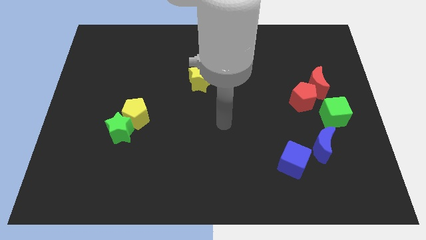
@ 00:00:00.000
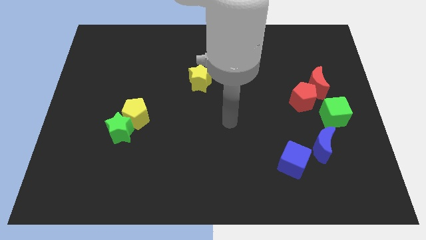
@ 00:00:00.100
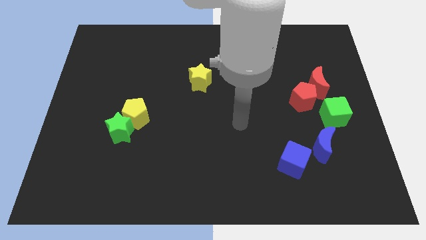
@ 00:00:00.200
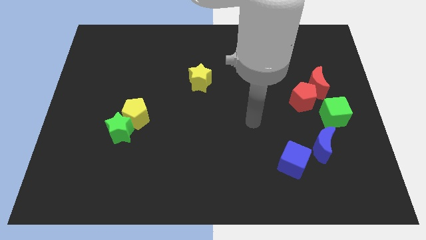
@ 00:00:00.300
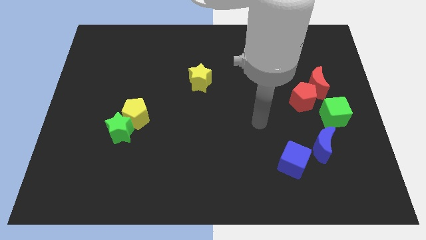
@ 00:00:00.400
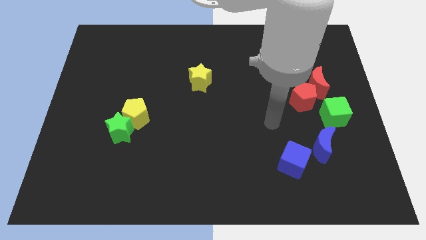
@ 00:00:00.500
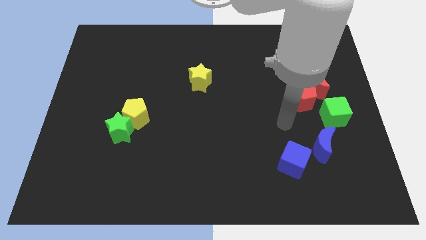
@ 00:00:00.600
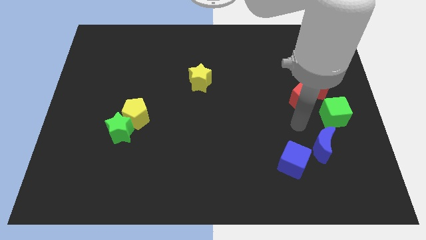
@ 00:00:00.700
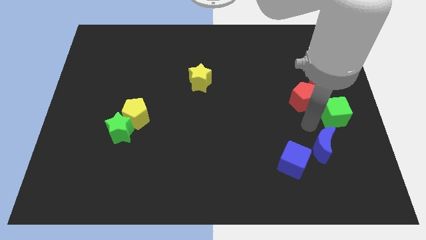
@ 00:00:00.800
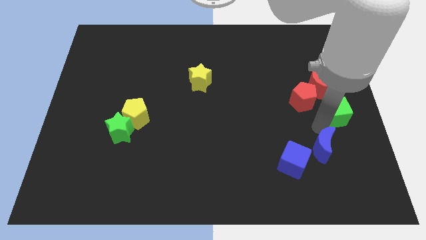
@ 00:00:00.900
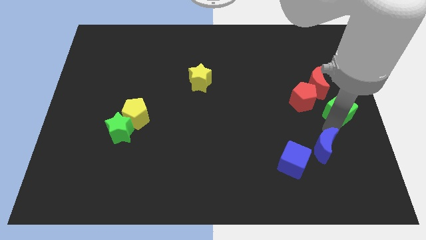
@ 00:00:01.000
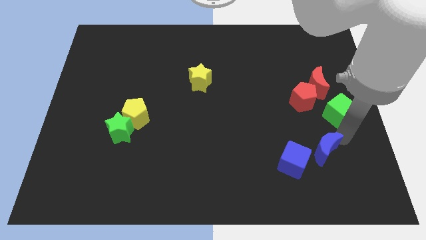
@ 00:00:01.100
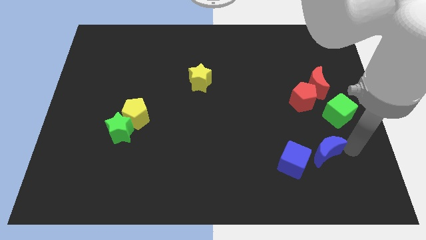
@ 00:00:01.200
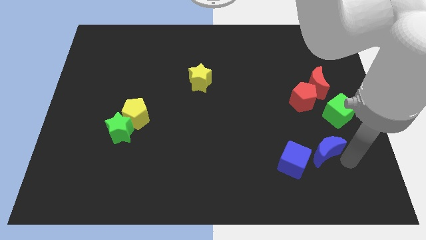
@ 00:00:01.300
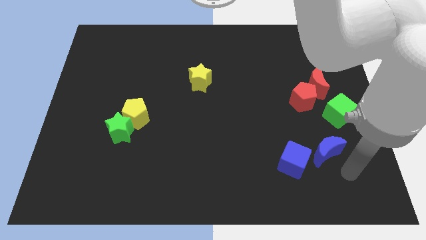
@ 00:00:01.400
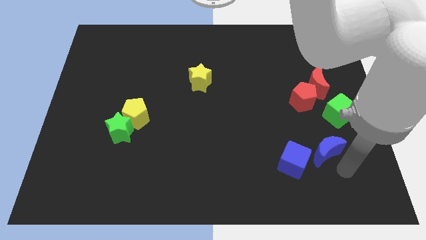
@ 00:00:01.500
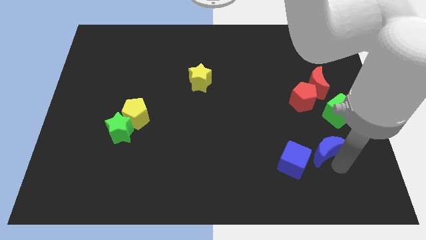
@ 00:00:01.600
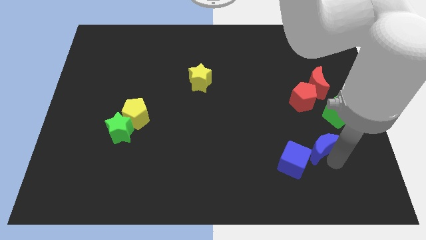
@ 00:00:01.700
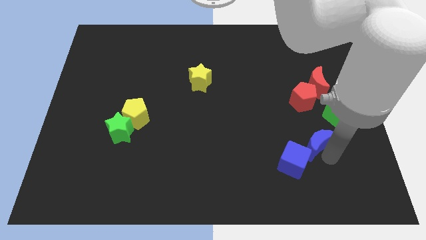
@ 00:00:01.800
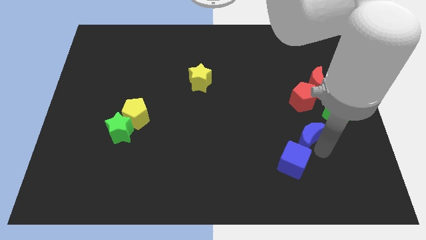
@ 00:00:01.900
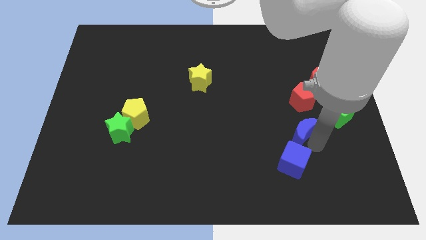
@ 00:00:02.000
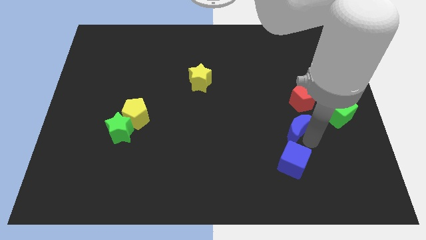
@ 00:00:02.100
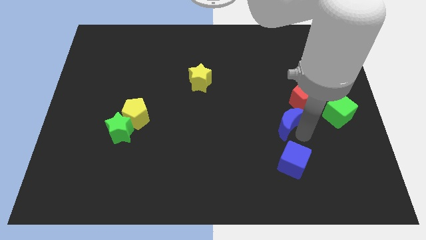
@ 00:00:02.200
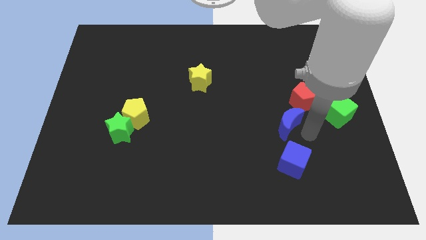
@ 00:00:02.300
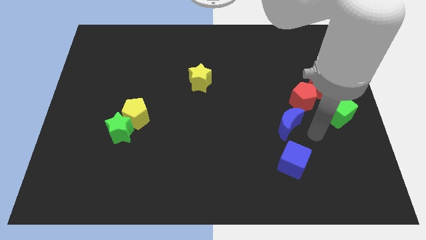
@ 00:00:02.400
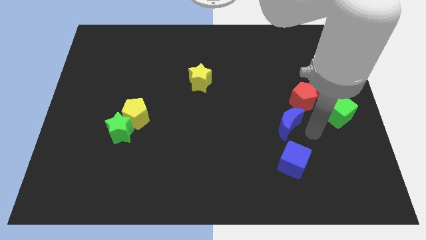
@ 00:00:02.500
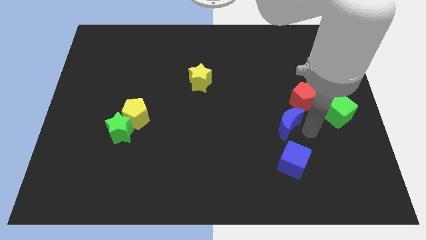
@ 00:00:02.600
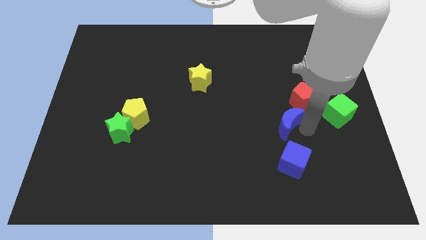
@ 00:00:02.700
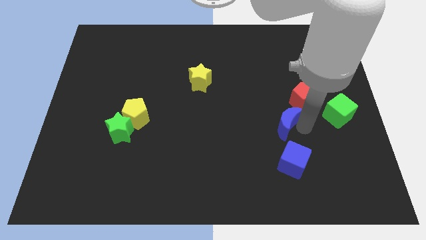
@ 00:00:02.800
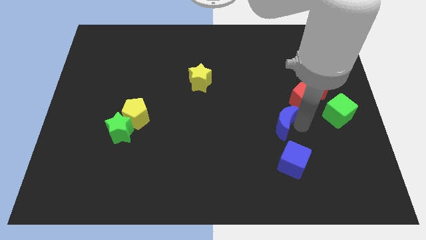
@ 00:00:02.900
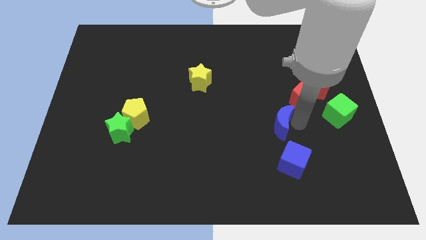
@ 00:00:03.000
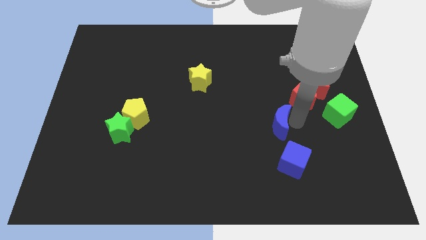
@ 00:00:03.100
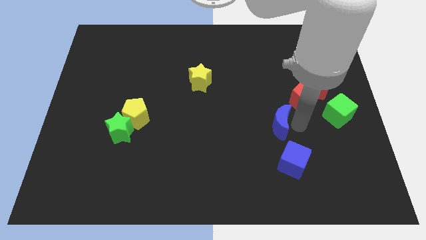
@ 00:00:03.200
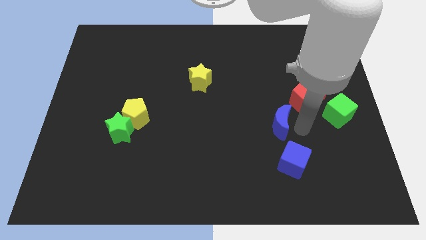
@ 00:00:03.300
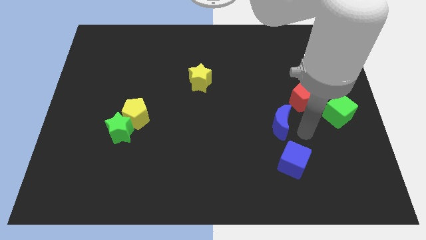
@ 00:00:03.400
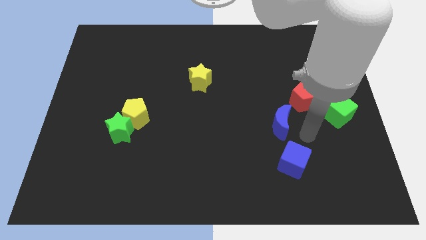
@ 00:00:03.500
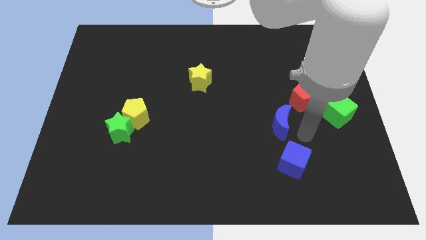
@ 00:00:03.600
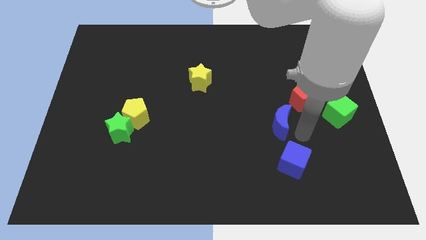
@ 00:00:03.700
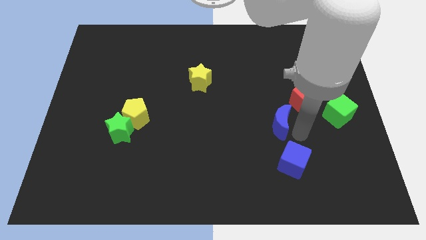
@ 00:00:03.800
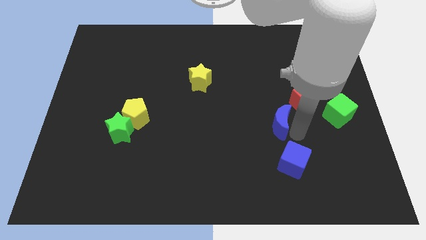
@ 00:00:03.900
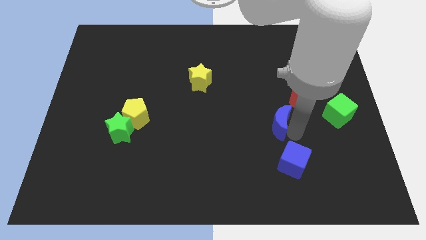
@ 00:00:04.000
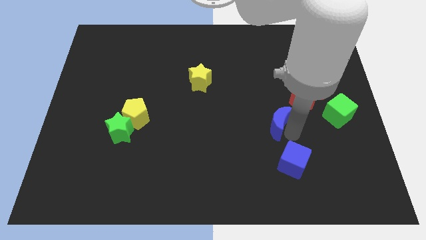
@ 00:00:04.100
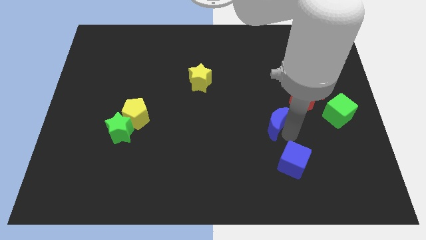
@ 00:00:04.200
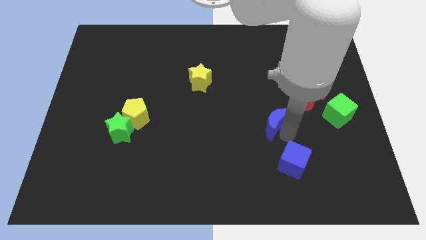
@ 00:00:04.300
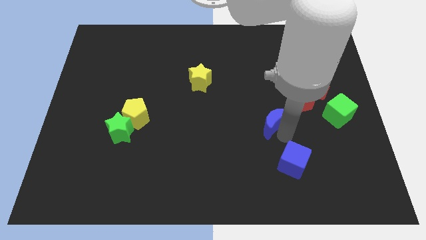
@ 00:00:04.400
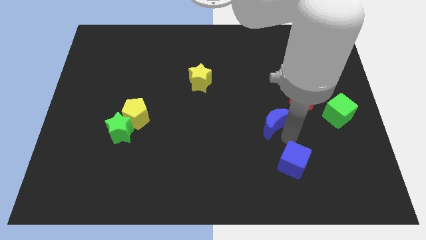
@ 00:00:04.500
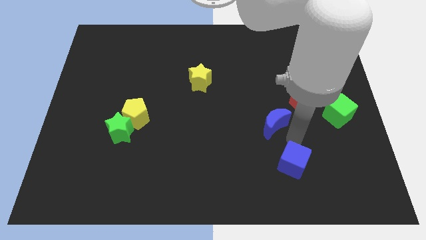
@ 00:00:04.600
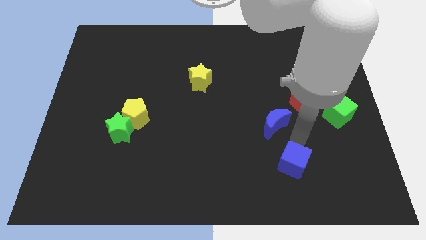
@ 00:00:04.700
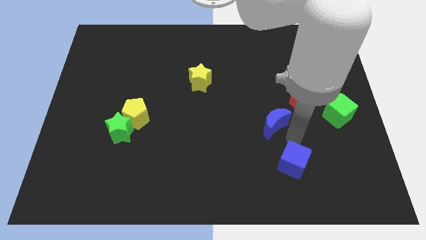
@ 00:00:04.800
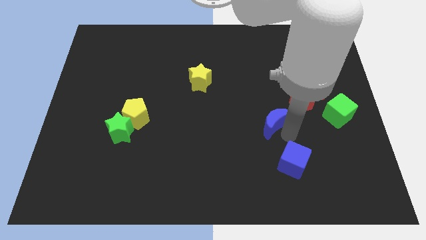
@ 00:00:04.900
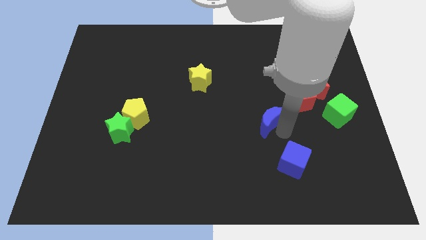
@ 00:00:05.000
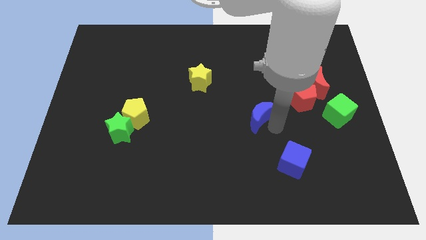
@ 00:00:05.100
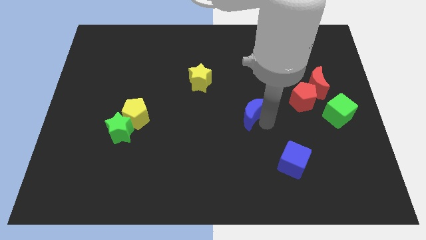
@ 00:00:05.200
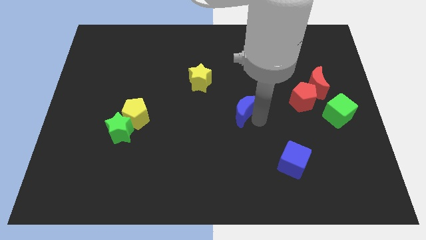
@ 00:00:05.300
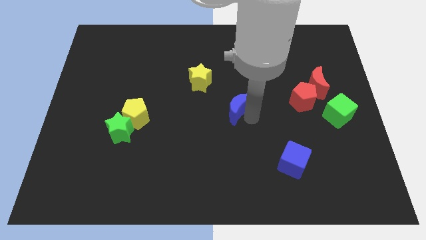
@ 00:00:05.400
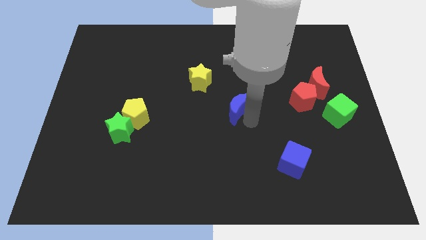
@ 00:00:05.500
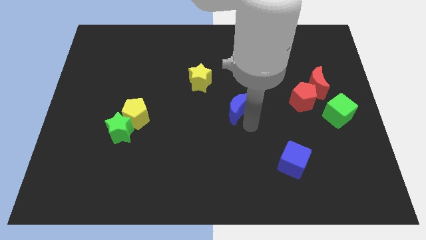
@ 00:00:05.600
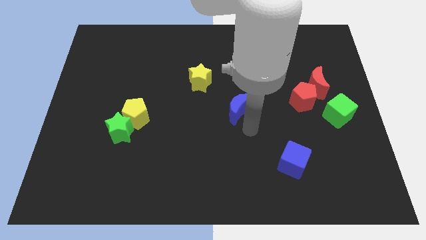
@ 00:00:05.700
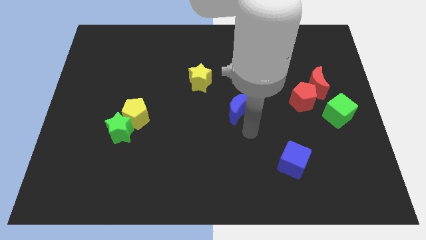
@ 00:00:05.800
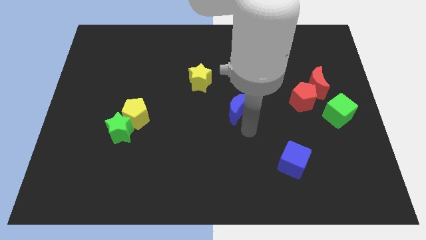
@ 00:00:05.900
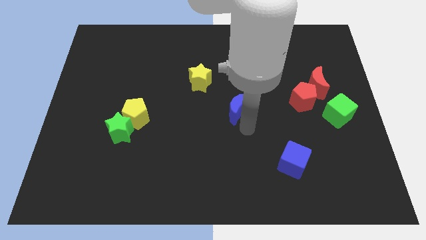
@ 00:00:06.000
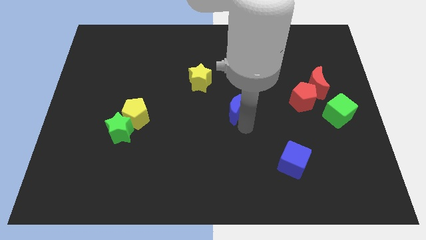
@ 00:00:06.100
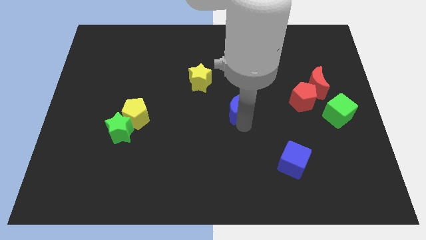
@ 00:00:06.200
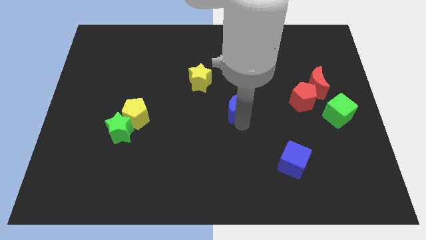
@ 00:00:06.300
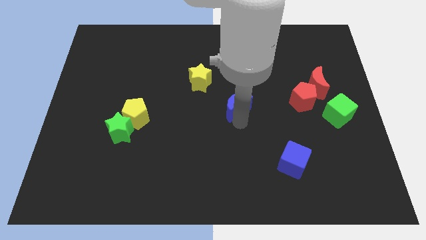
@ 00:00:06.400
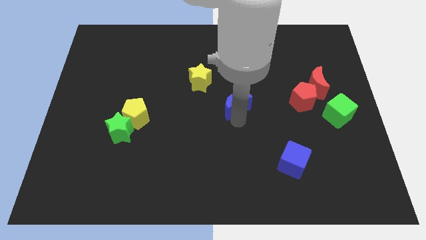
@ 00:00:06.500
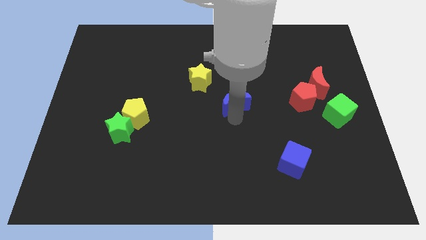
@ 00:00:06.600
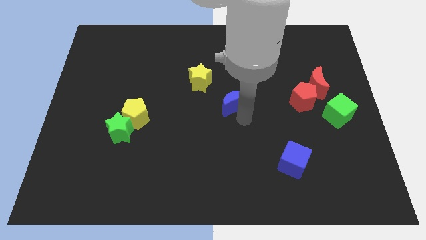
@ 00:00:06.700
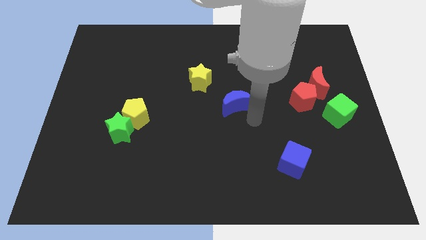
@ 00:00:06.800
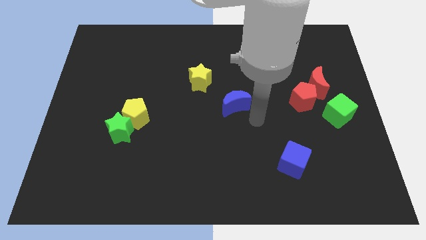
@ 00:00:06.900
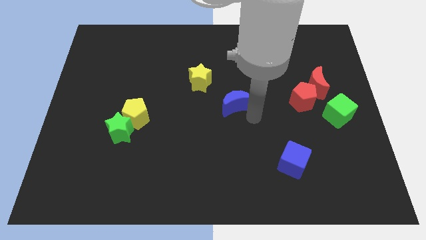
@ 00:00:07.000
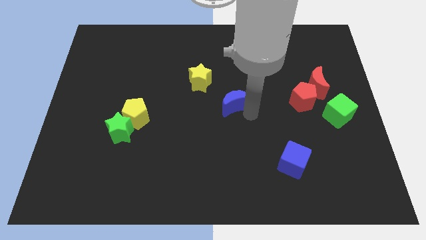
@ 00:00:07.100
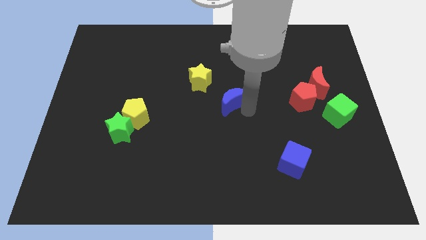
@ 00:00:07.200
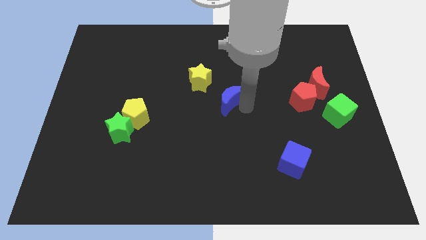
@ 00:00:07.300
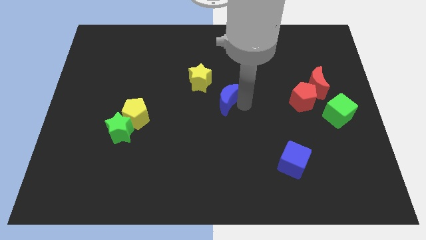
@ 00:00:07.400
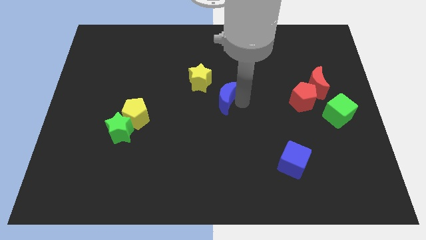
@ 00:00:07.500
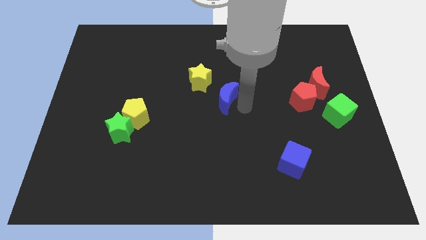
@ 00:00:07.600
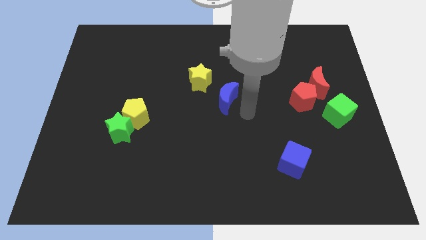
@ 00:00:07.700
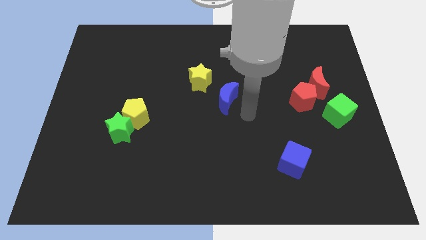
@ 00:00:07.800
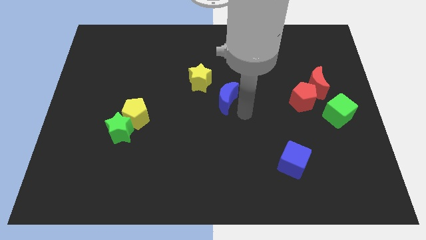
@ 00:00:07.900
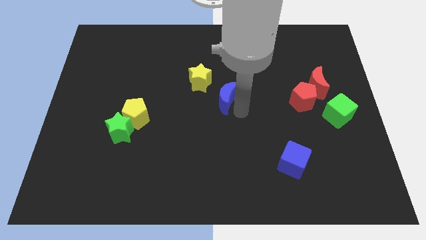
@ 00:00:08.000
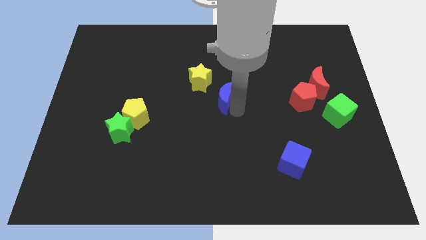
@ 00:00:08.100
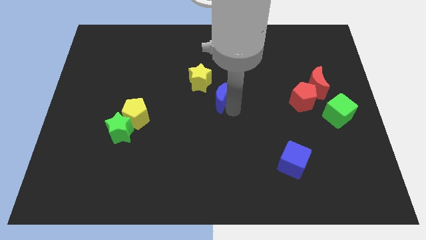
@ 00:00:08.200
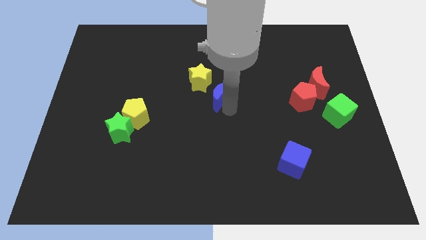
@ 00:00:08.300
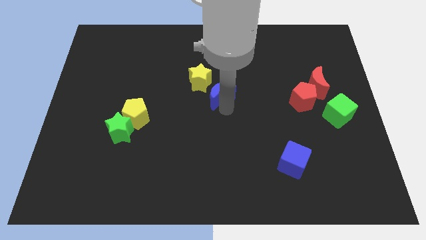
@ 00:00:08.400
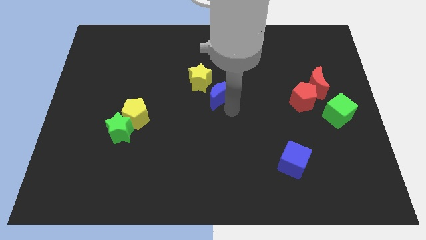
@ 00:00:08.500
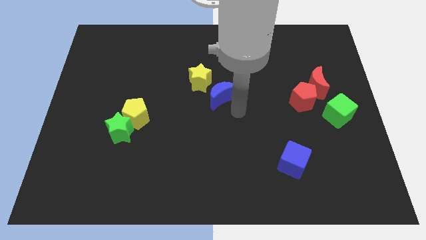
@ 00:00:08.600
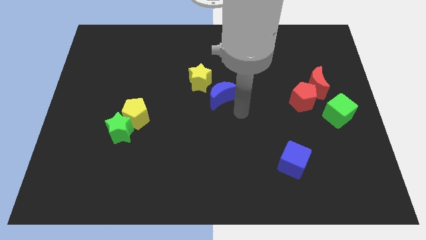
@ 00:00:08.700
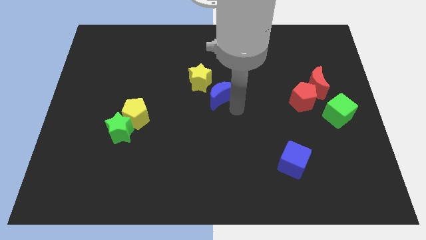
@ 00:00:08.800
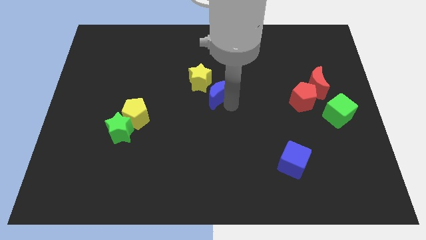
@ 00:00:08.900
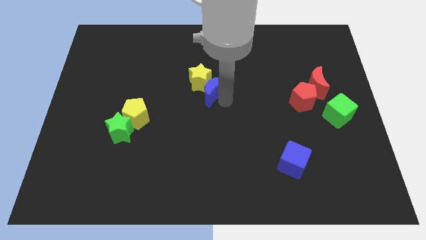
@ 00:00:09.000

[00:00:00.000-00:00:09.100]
move the blue moon to the yellow star
